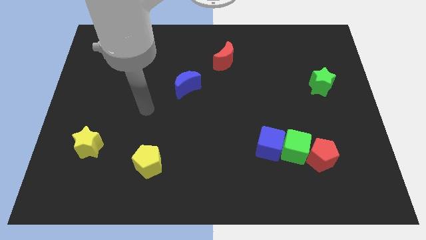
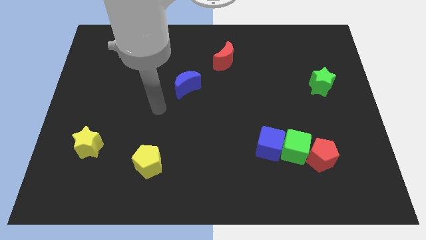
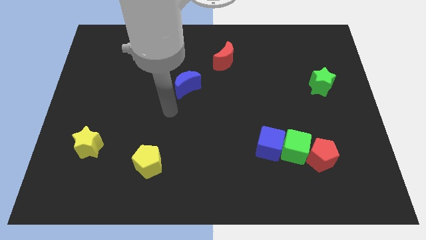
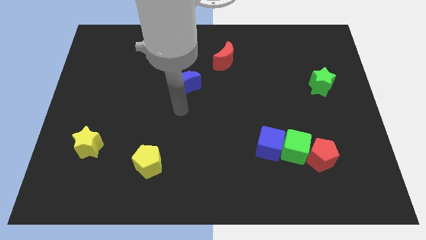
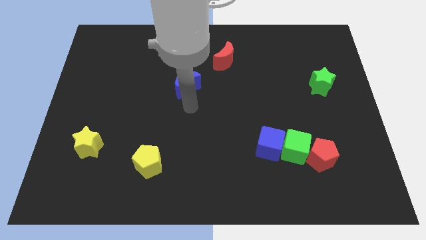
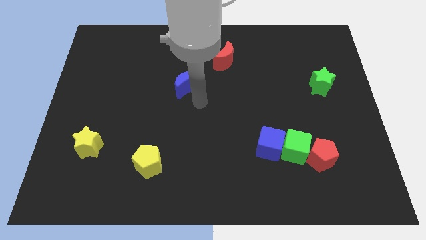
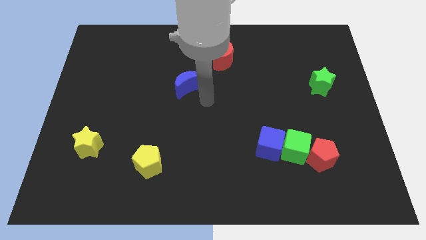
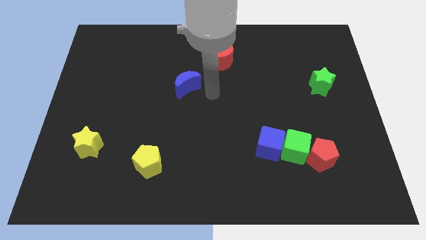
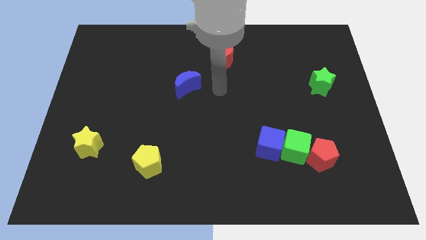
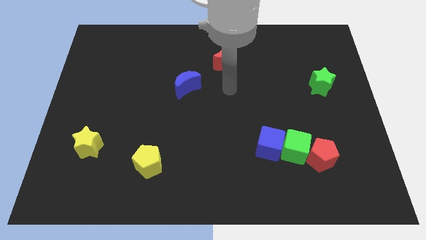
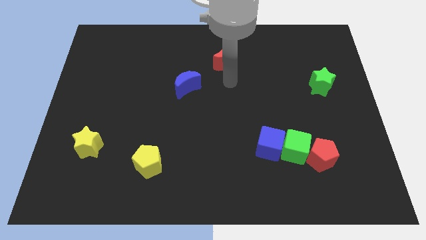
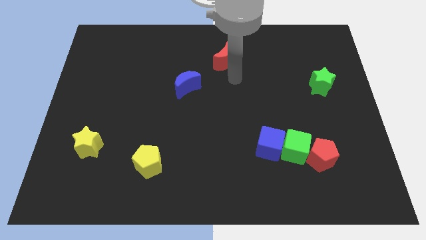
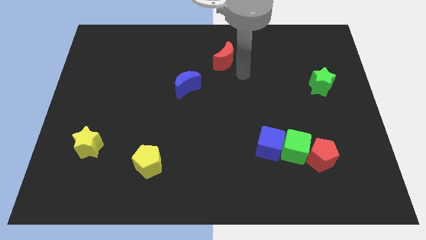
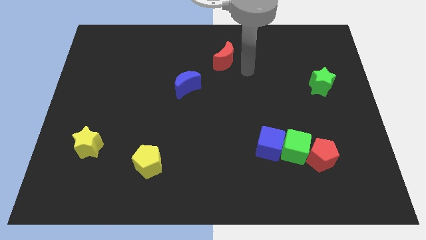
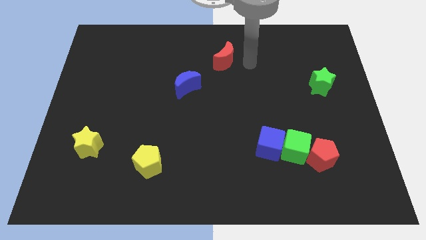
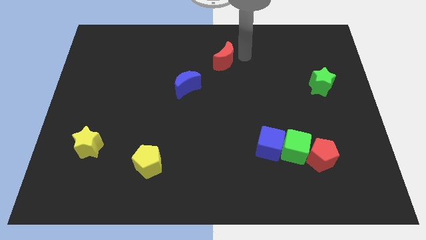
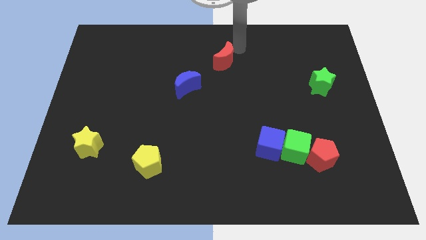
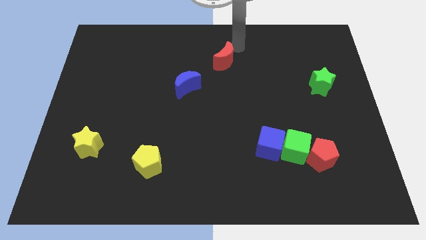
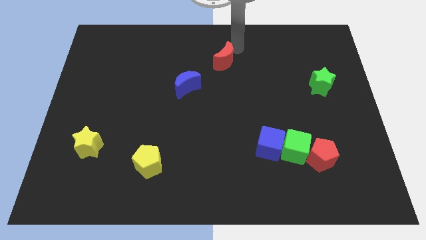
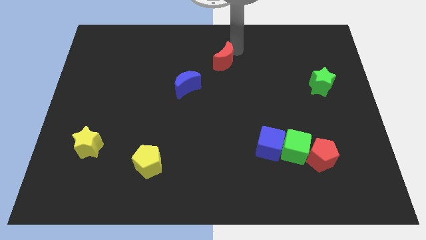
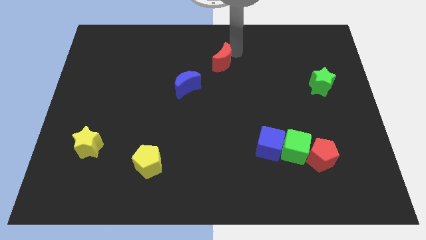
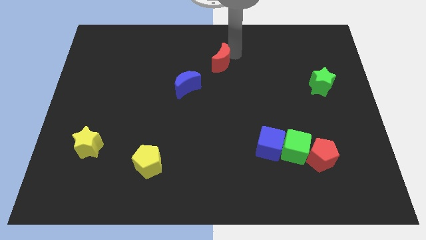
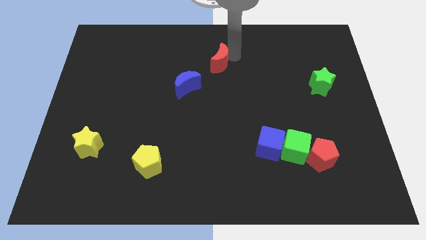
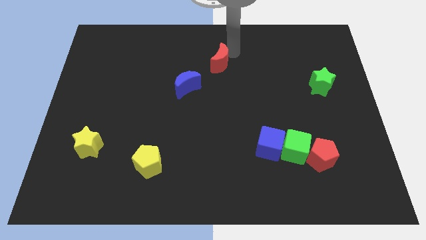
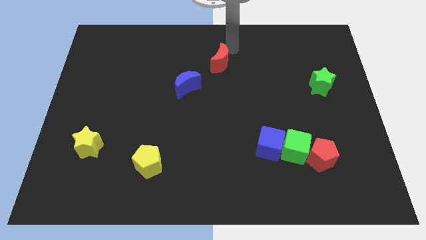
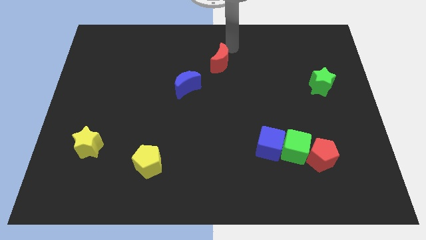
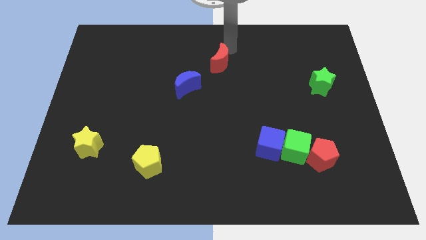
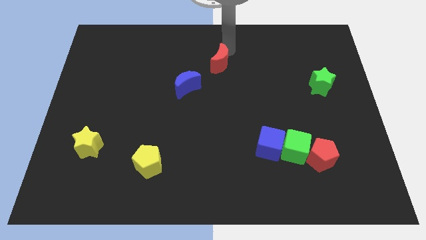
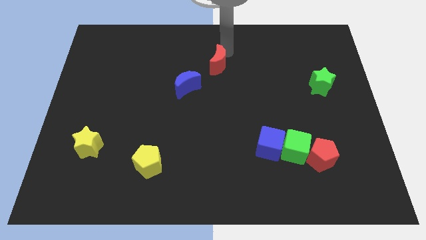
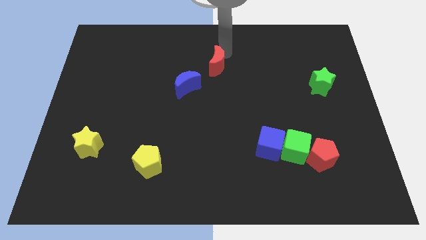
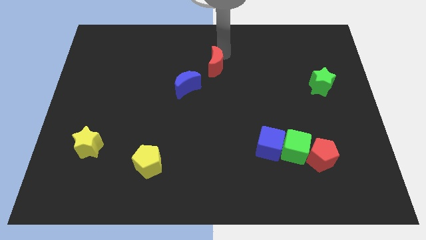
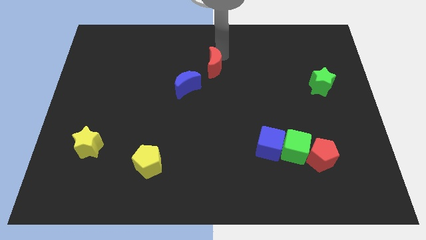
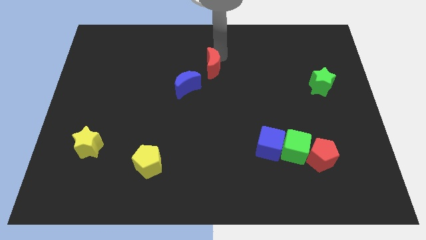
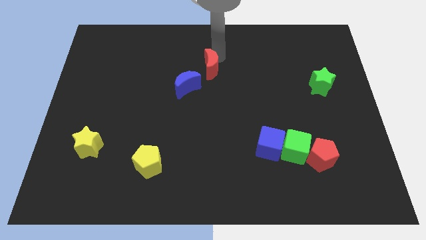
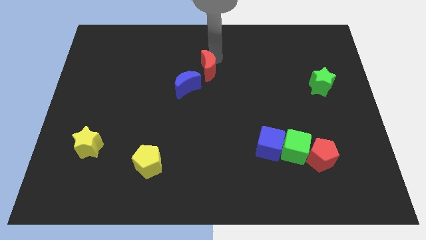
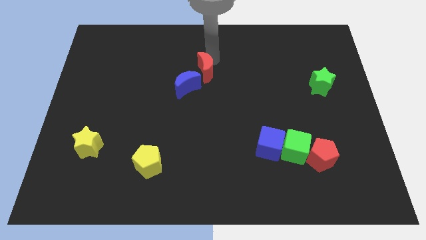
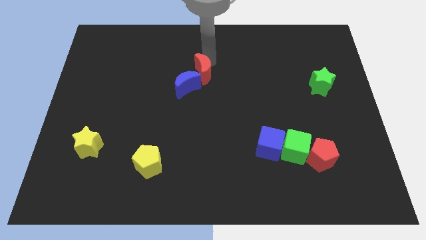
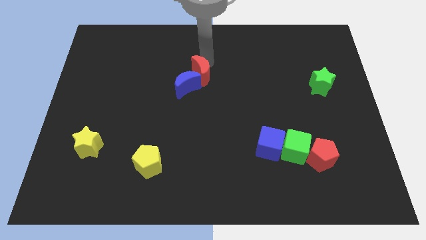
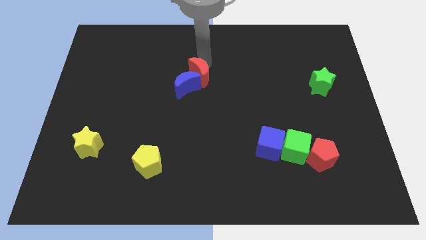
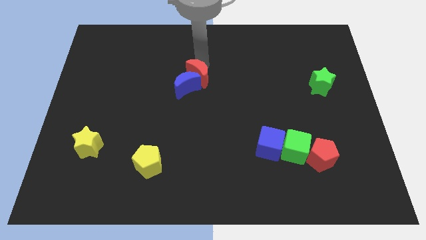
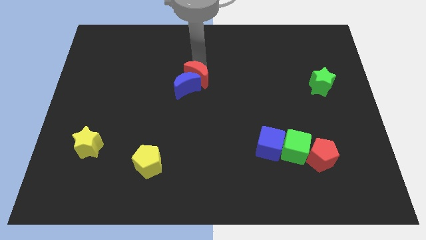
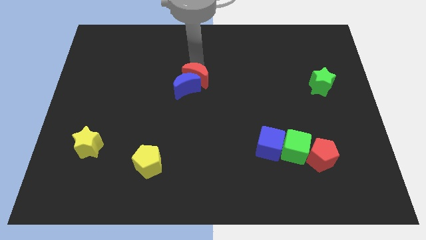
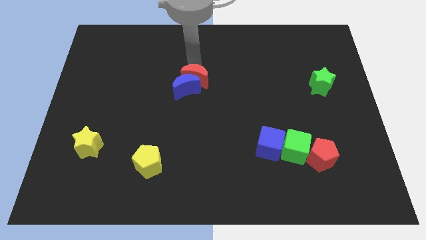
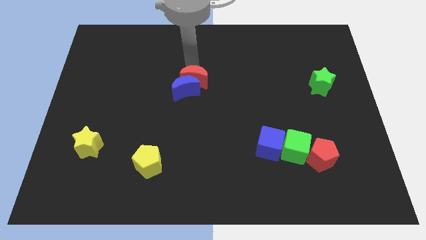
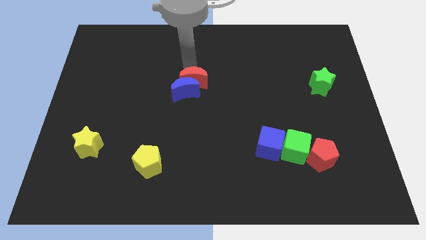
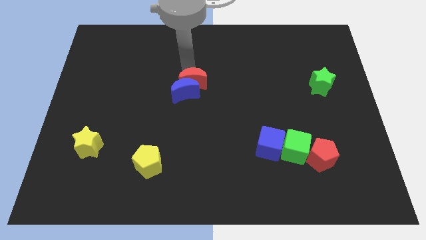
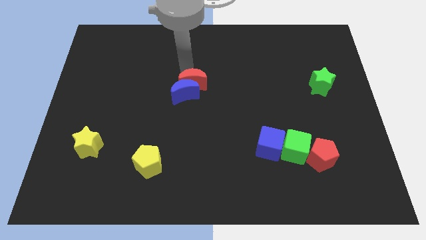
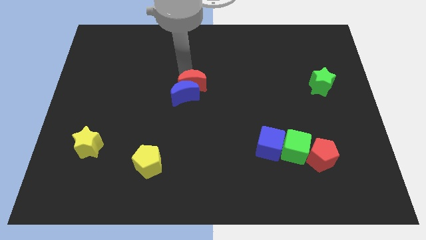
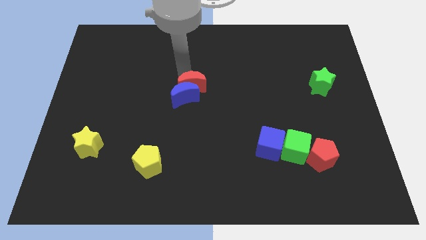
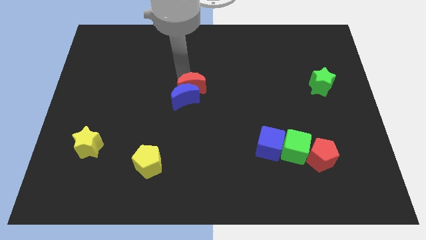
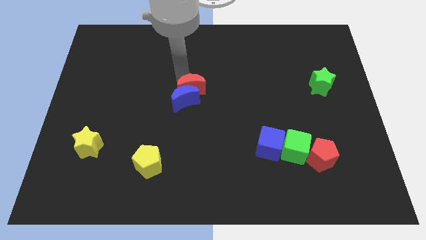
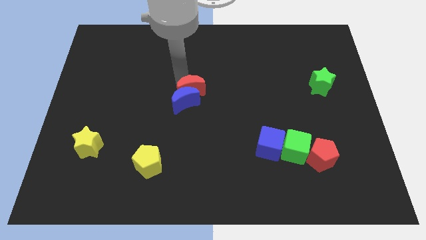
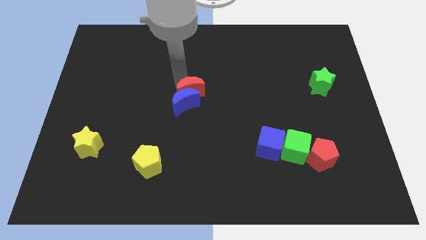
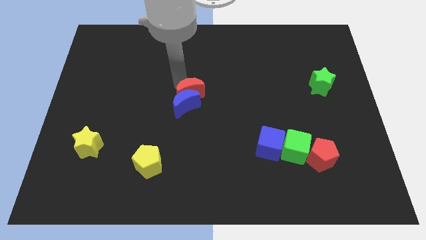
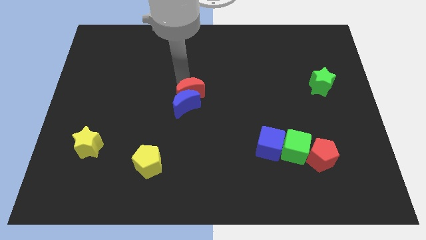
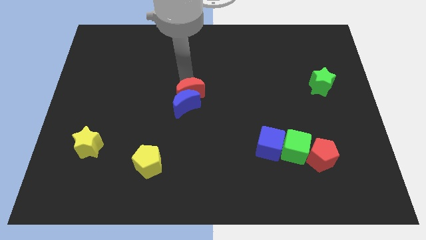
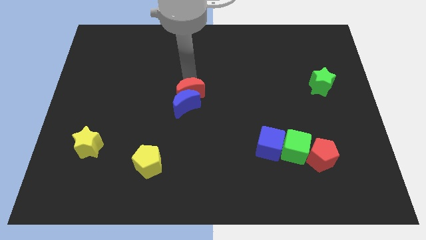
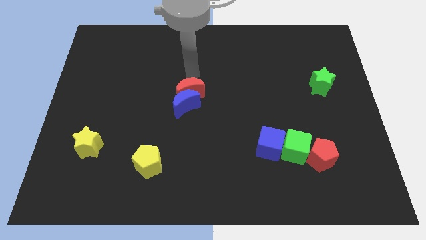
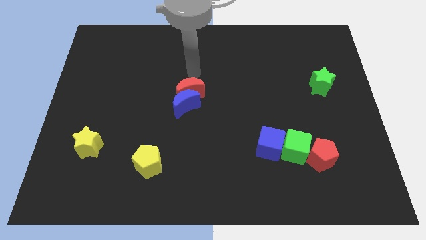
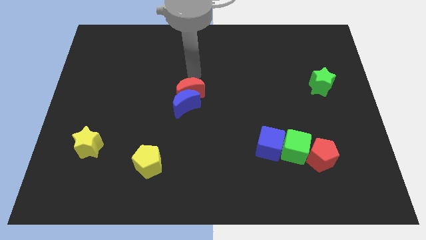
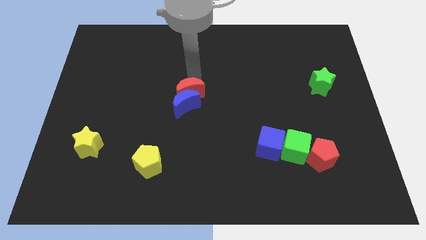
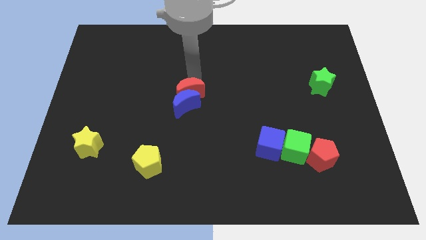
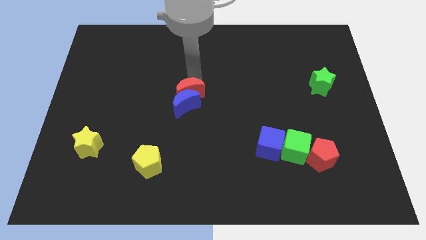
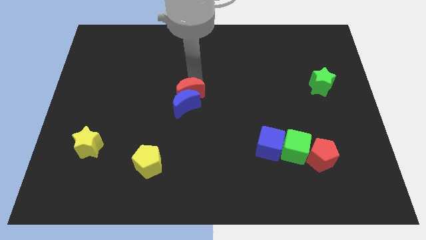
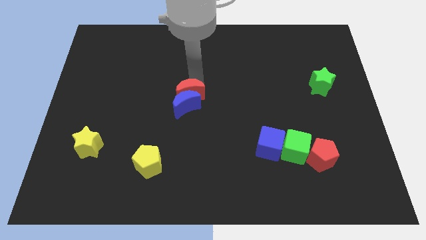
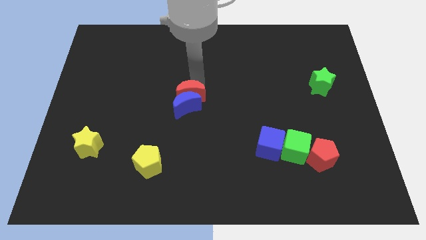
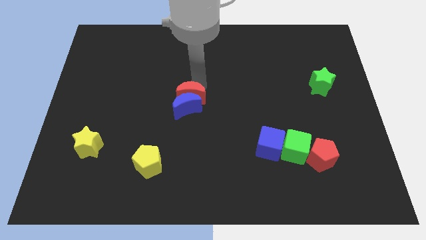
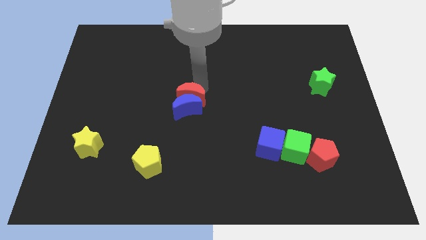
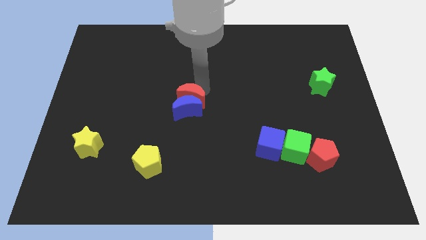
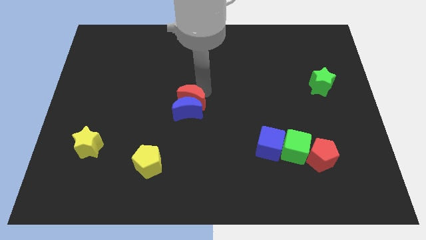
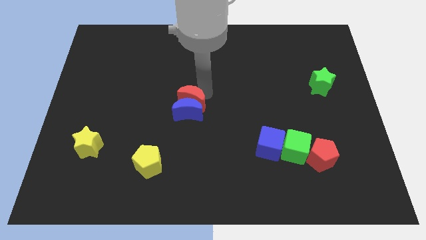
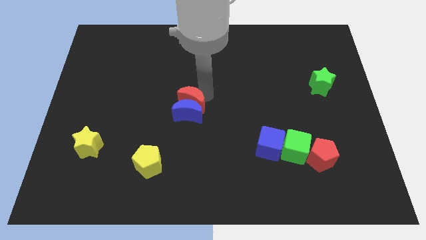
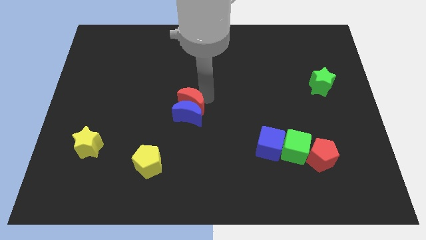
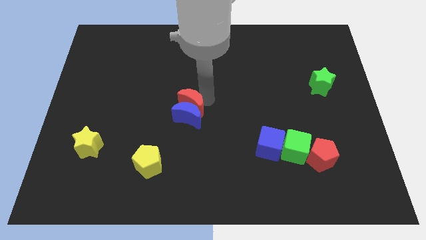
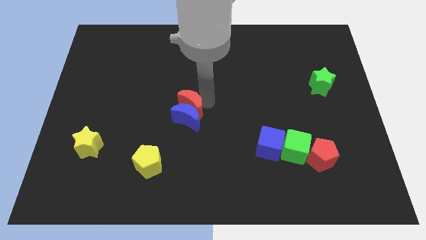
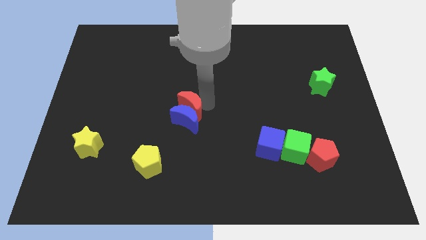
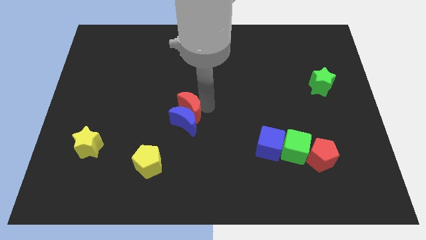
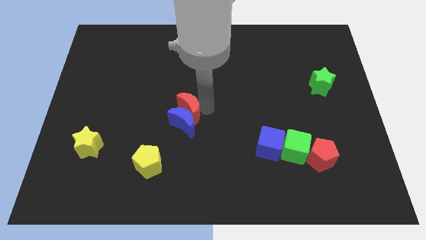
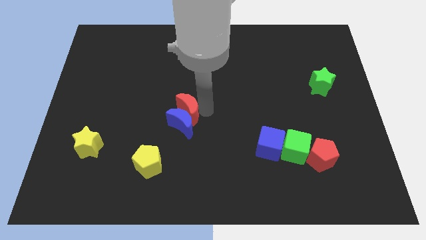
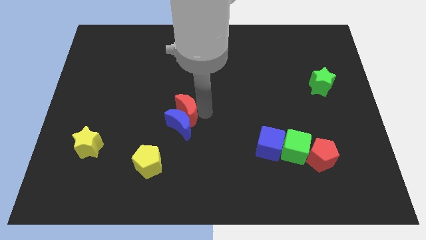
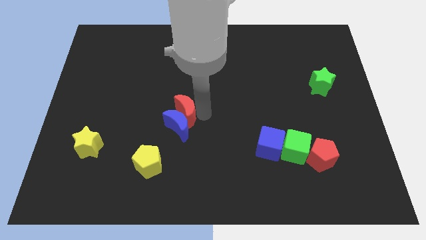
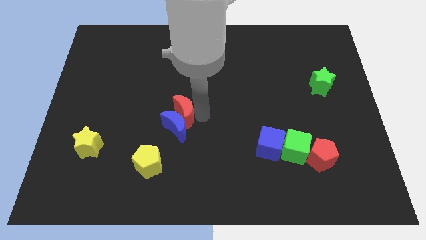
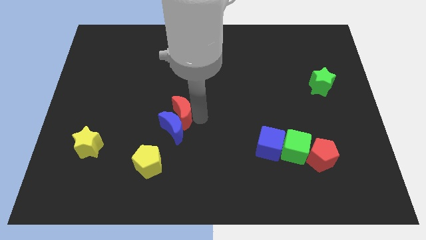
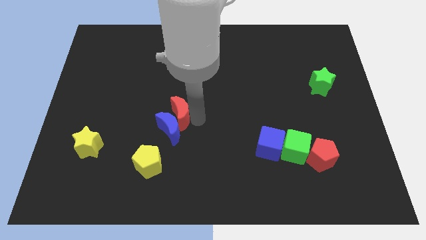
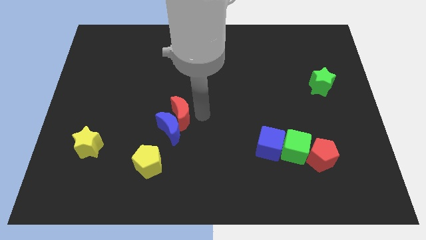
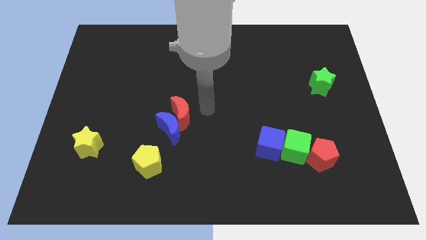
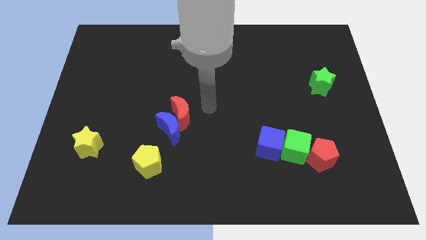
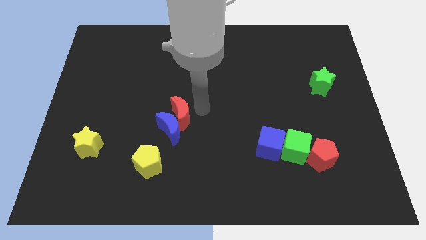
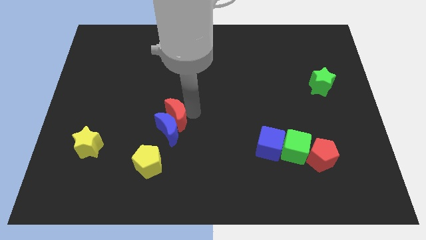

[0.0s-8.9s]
move the red moon downwards and left diagonally
